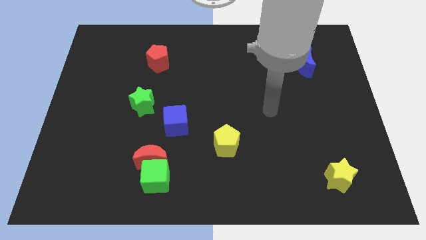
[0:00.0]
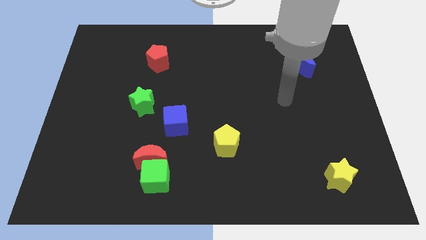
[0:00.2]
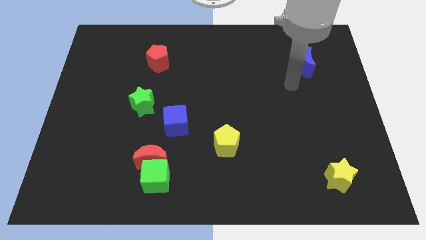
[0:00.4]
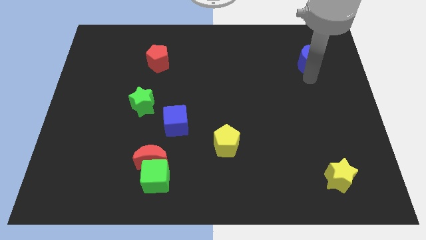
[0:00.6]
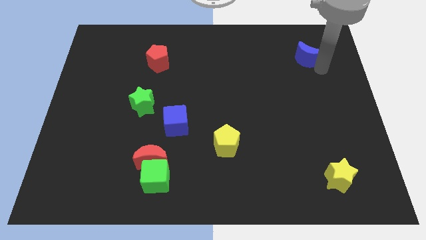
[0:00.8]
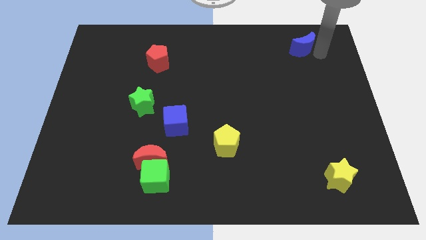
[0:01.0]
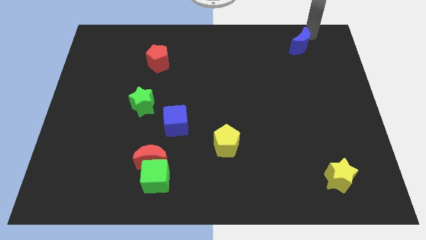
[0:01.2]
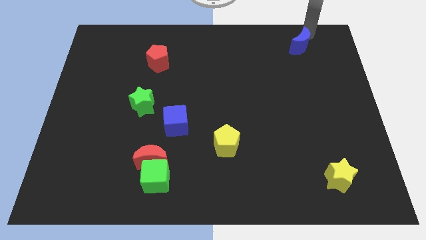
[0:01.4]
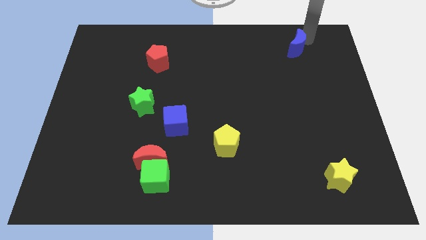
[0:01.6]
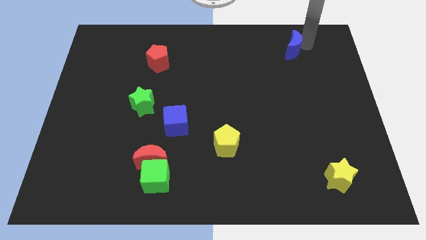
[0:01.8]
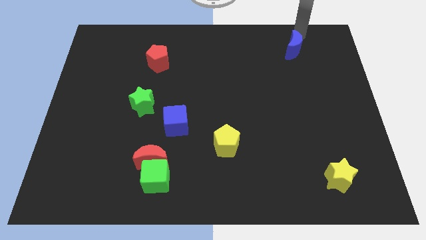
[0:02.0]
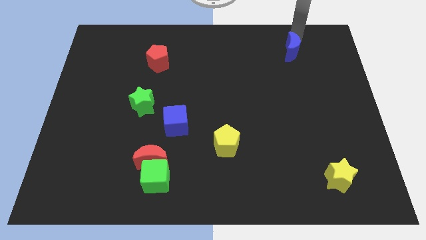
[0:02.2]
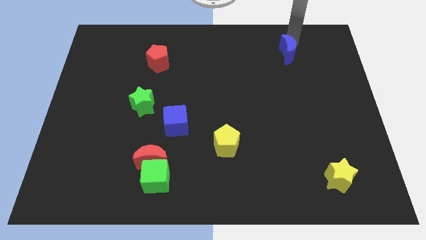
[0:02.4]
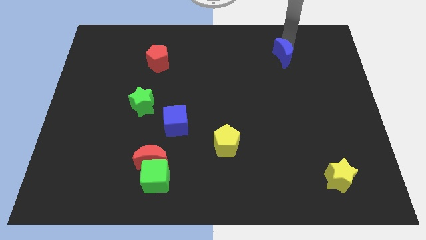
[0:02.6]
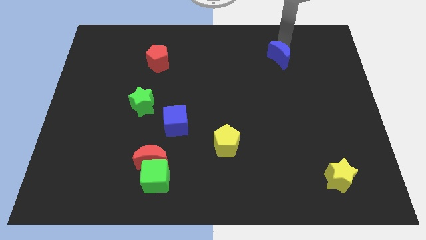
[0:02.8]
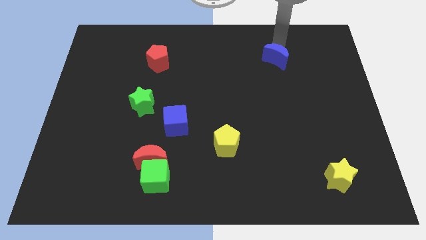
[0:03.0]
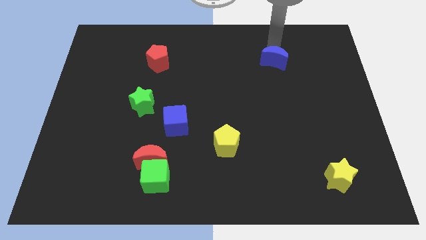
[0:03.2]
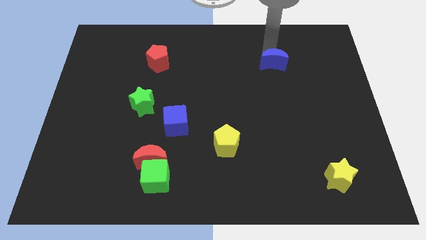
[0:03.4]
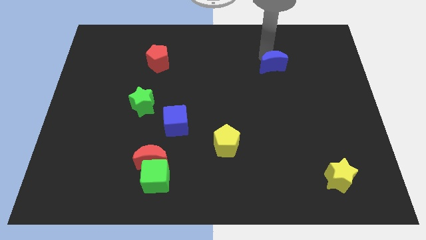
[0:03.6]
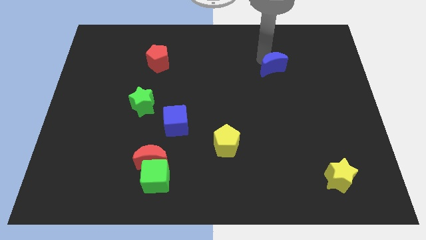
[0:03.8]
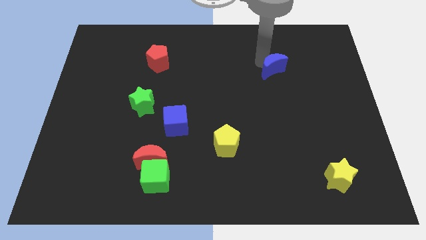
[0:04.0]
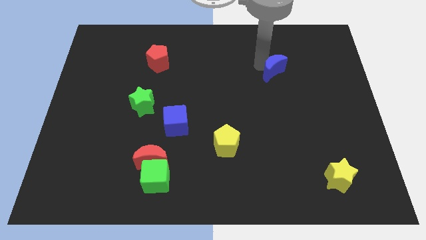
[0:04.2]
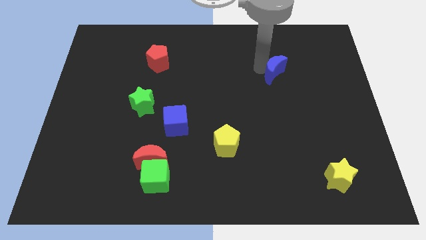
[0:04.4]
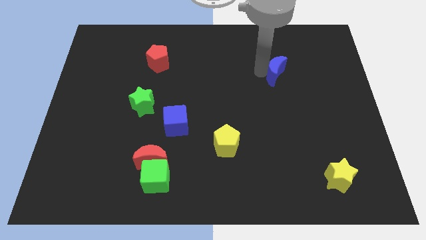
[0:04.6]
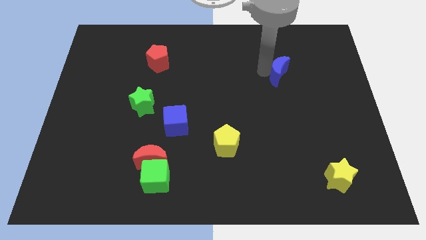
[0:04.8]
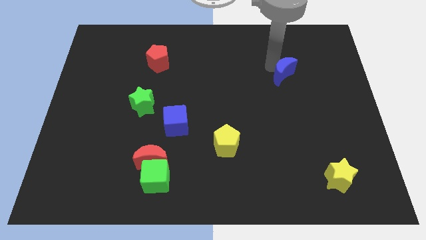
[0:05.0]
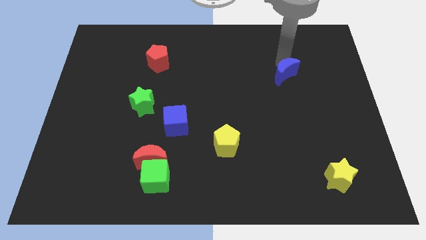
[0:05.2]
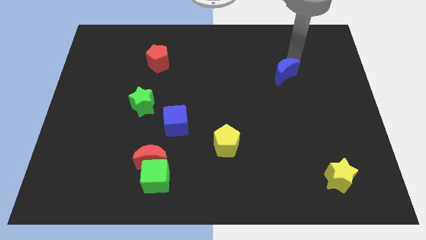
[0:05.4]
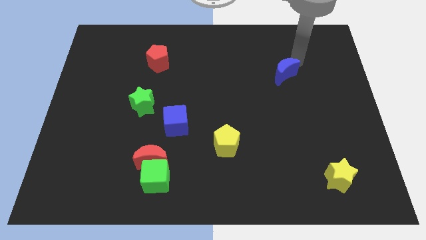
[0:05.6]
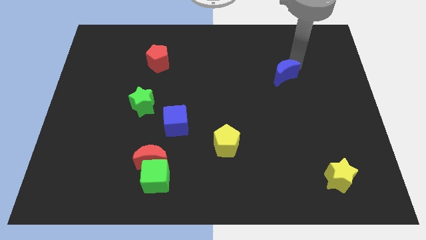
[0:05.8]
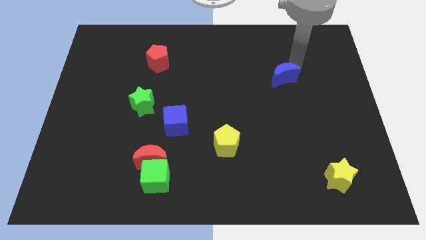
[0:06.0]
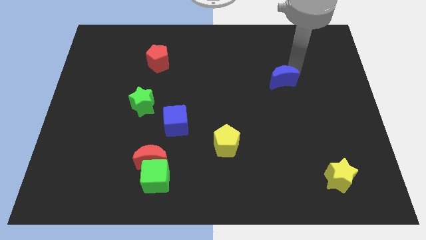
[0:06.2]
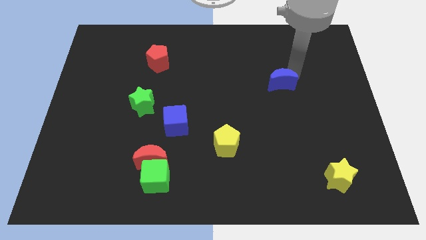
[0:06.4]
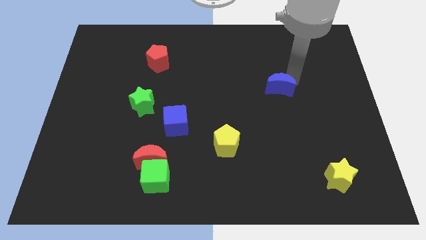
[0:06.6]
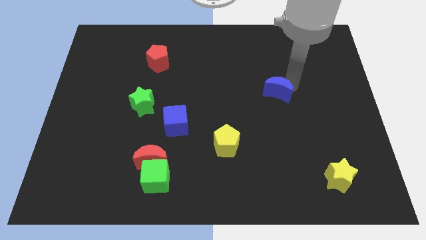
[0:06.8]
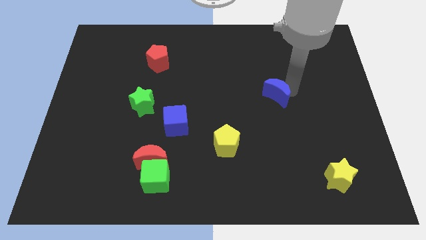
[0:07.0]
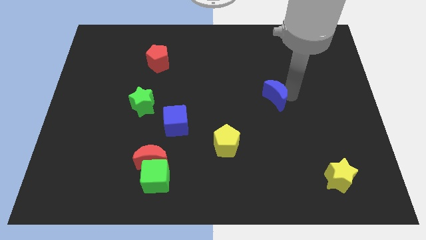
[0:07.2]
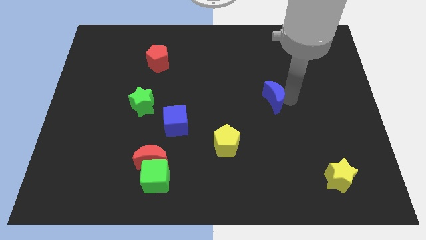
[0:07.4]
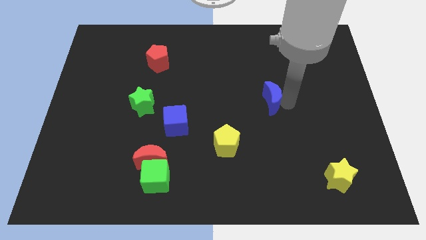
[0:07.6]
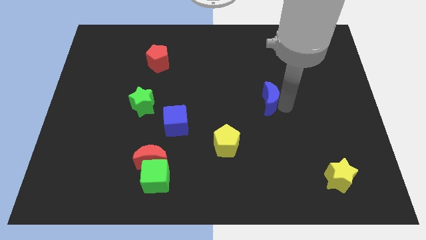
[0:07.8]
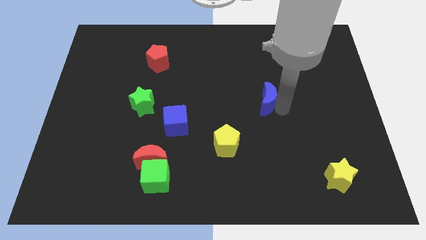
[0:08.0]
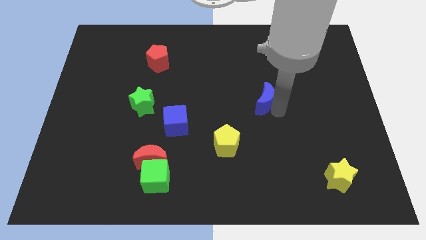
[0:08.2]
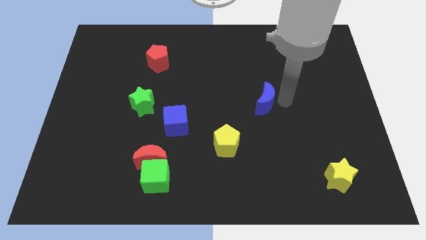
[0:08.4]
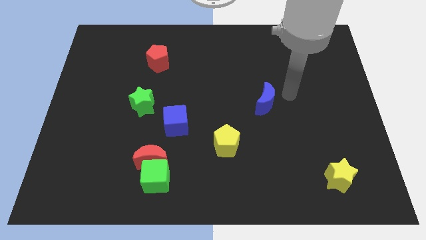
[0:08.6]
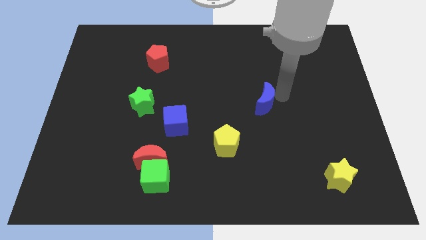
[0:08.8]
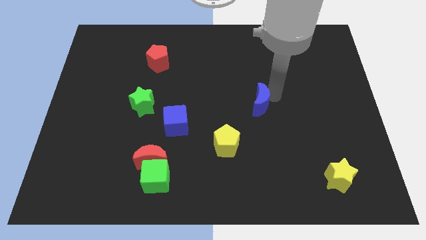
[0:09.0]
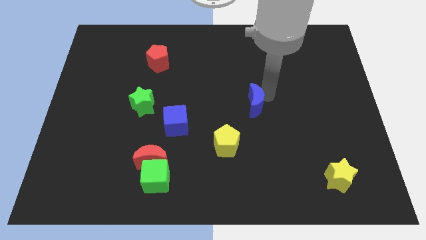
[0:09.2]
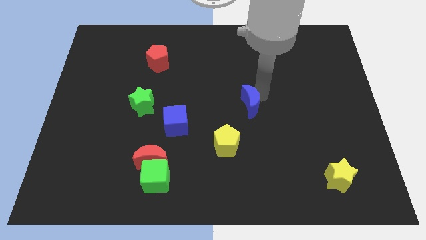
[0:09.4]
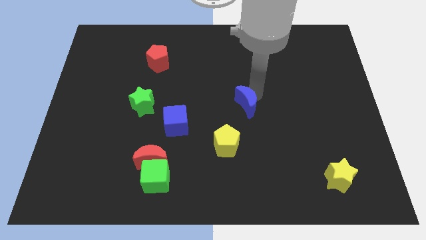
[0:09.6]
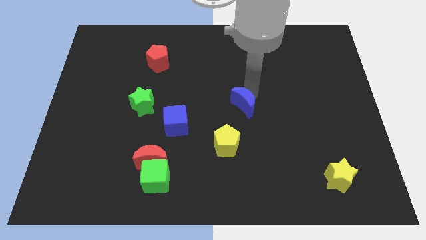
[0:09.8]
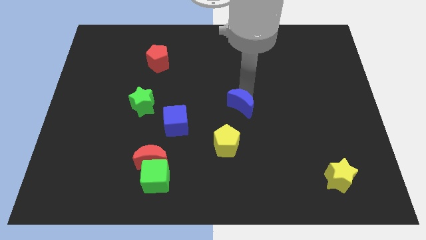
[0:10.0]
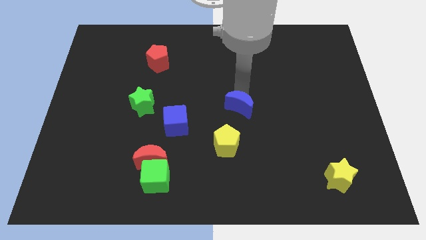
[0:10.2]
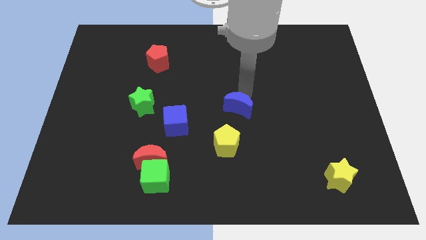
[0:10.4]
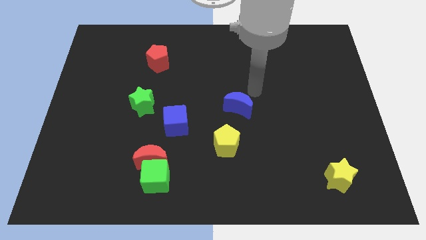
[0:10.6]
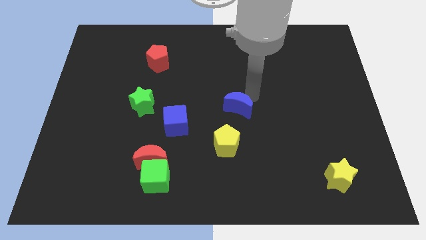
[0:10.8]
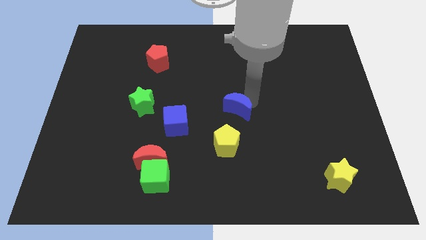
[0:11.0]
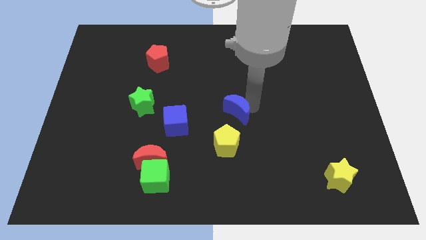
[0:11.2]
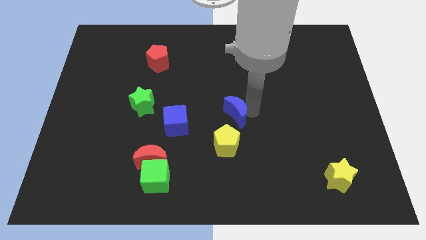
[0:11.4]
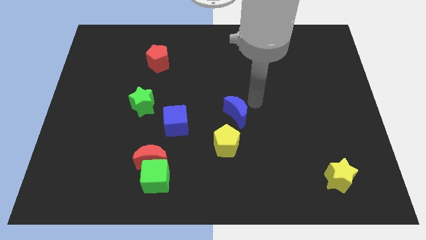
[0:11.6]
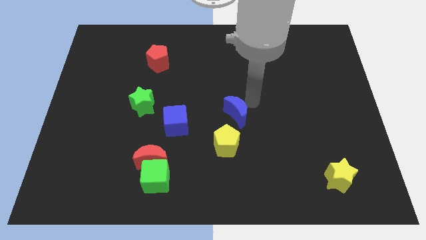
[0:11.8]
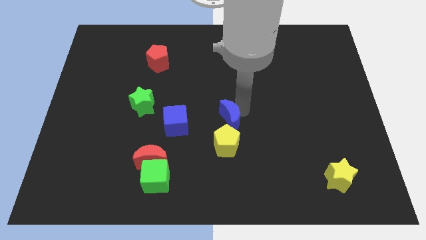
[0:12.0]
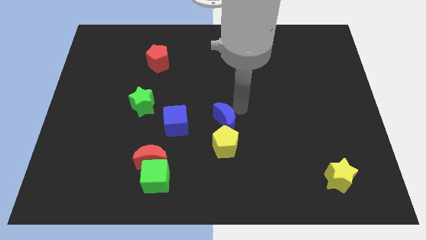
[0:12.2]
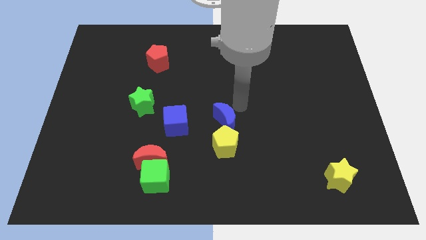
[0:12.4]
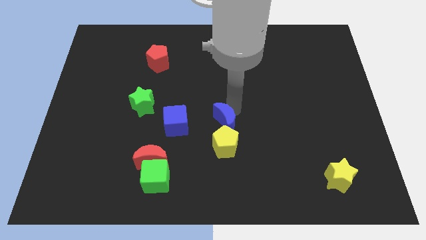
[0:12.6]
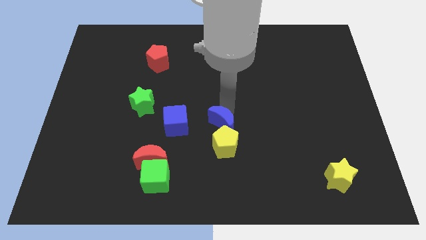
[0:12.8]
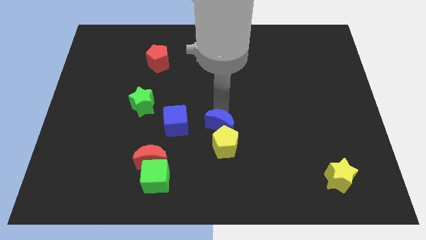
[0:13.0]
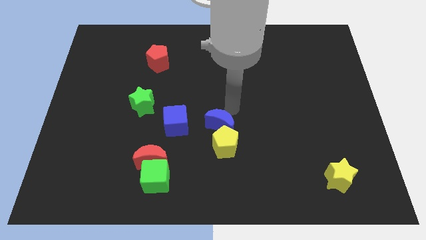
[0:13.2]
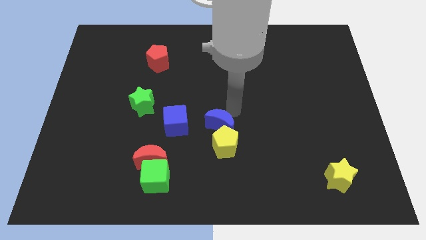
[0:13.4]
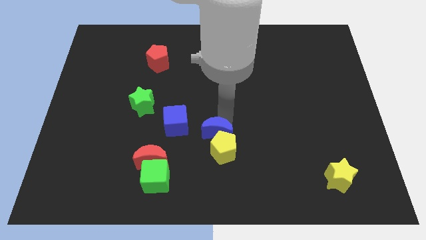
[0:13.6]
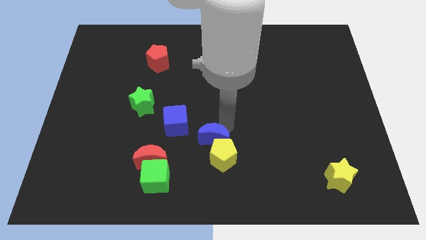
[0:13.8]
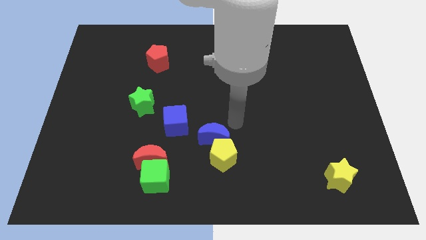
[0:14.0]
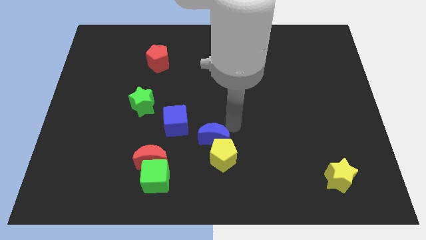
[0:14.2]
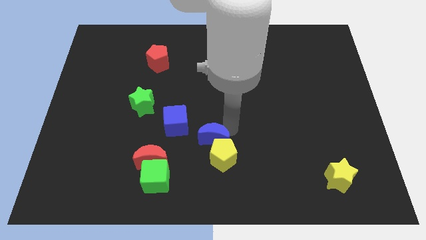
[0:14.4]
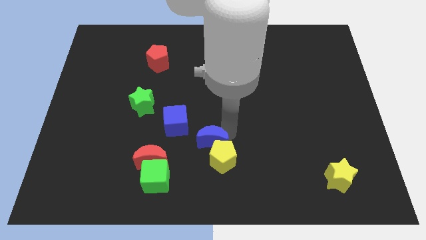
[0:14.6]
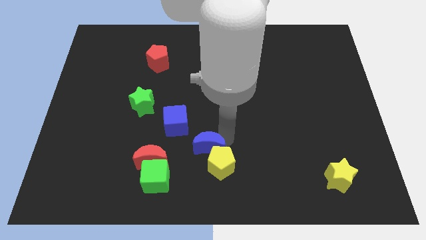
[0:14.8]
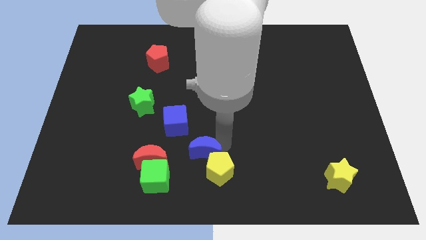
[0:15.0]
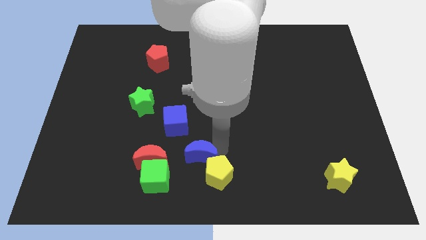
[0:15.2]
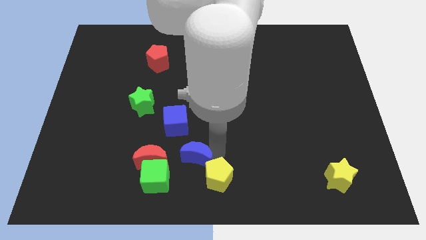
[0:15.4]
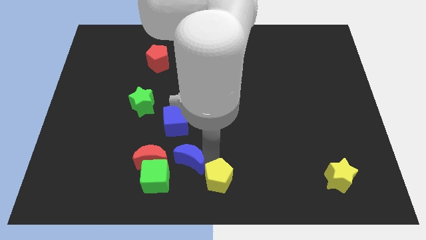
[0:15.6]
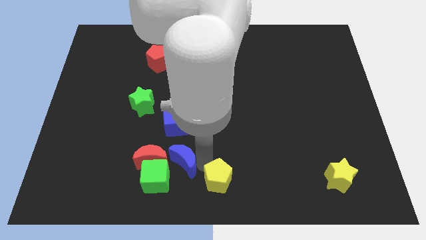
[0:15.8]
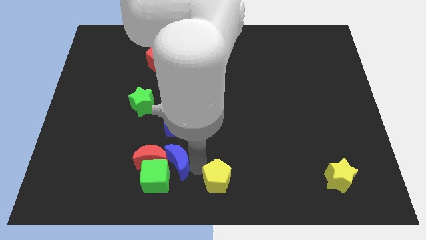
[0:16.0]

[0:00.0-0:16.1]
slide the blue moon next to the green cube
